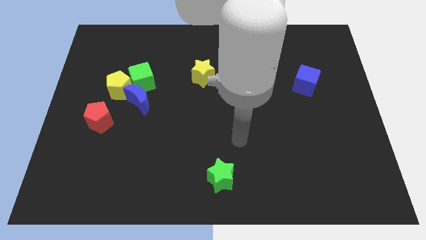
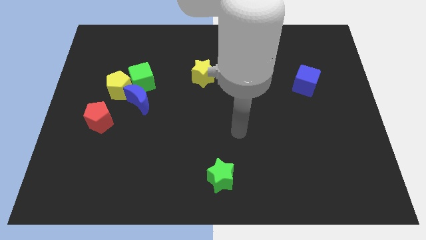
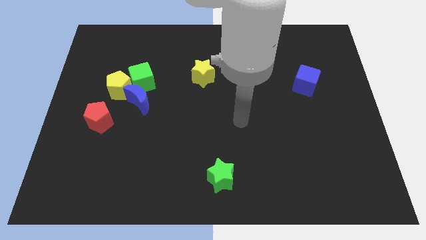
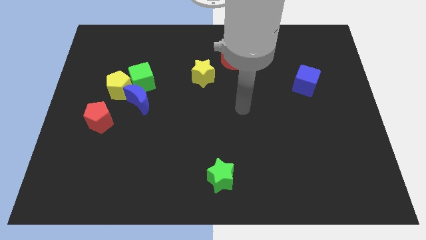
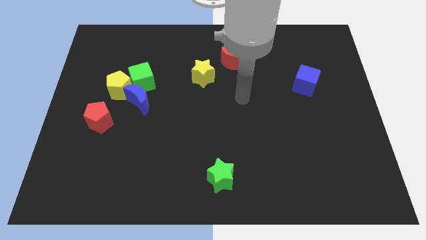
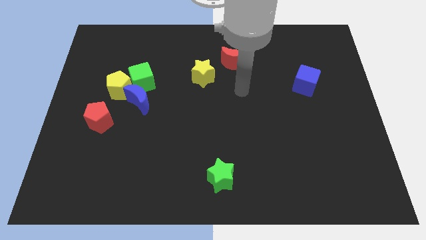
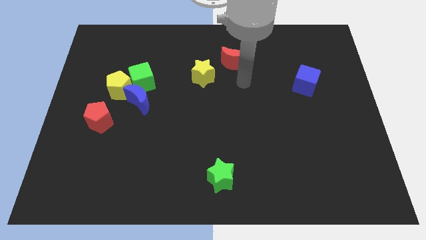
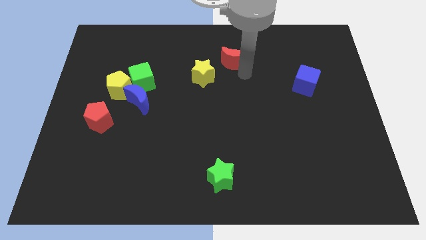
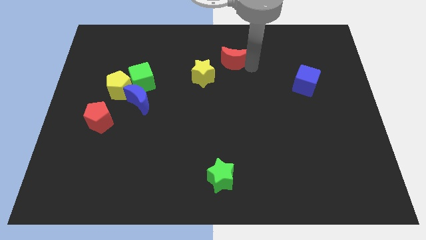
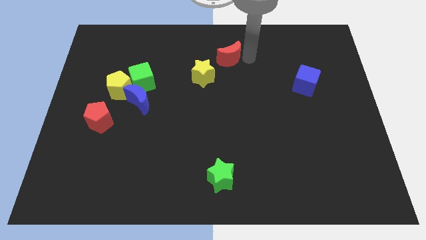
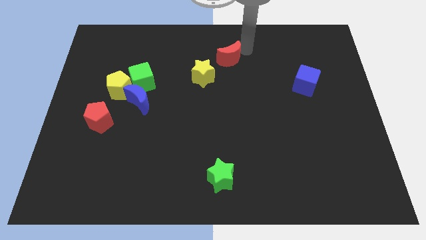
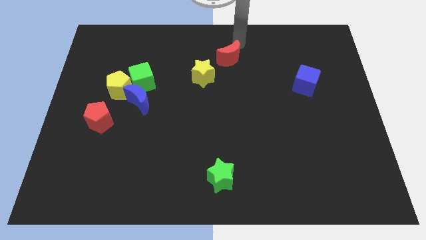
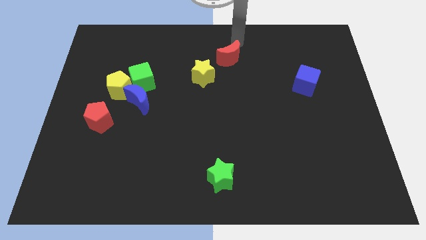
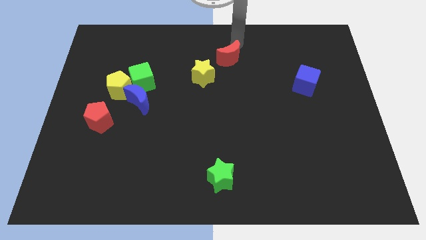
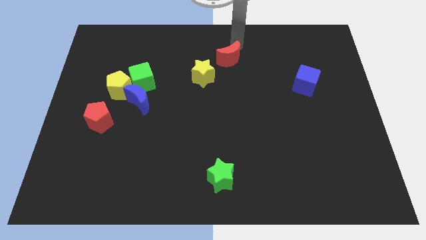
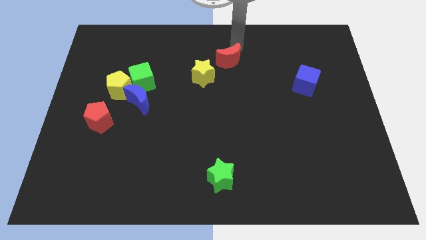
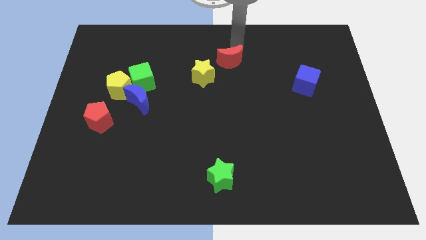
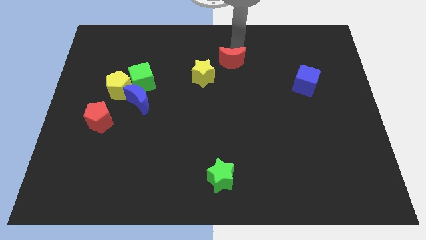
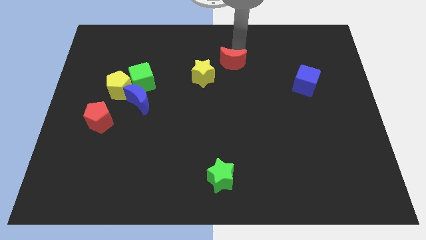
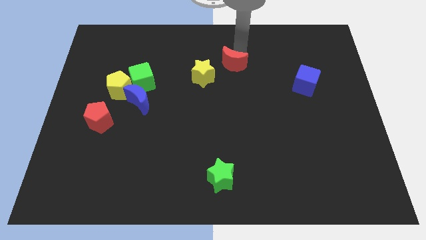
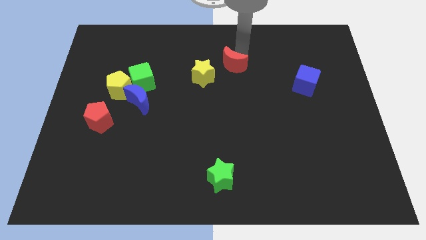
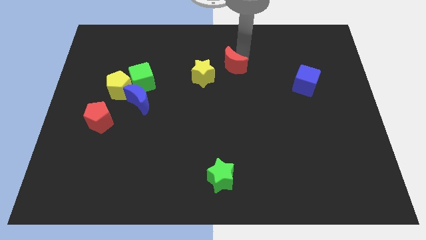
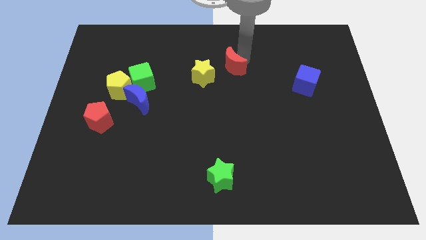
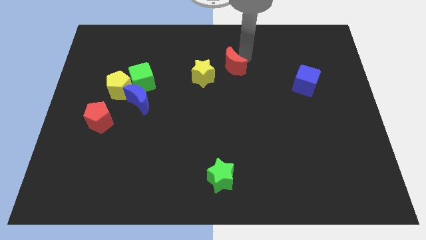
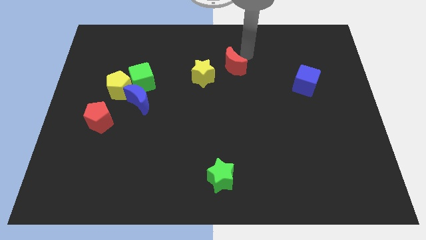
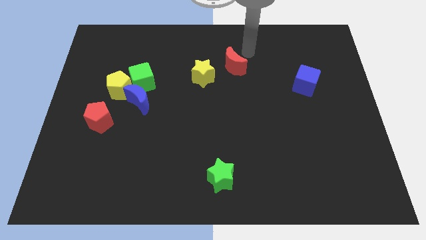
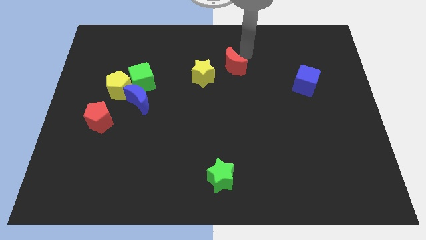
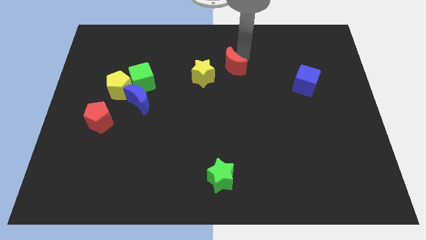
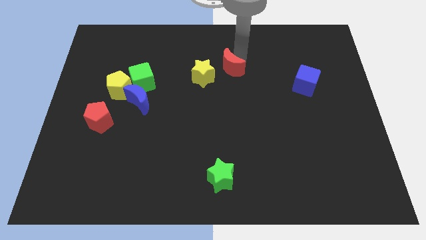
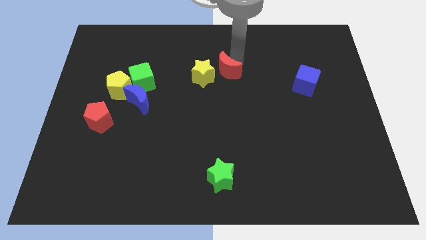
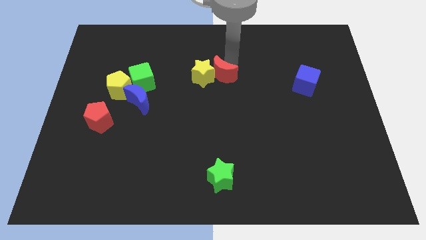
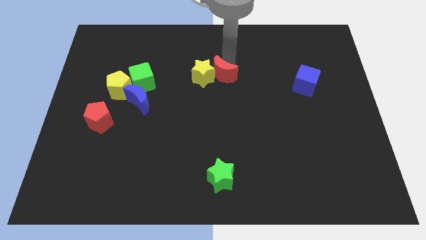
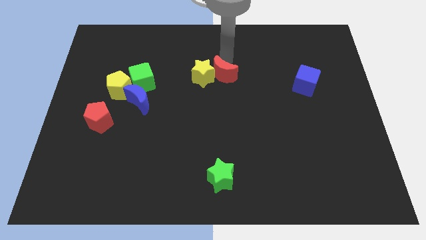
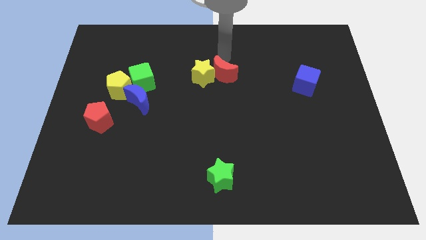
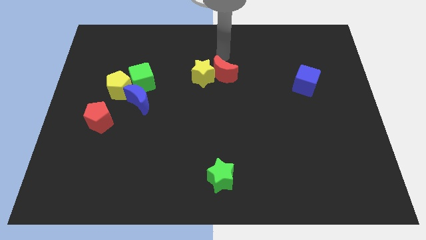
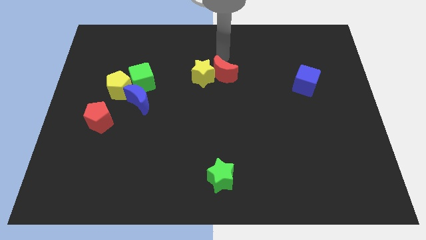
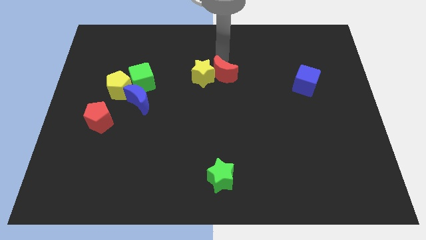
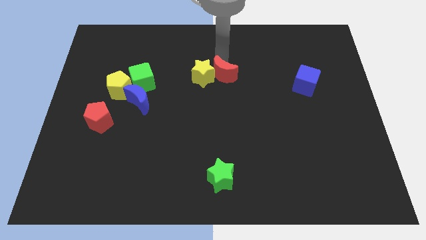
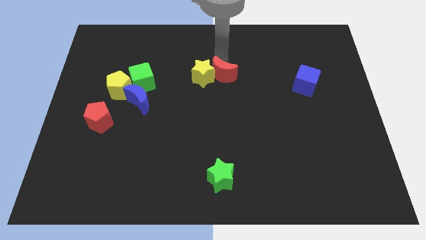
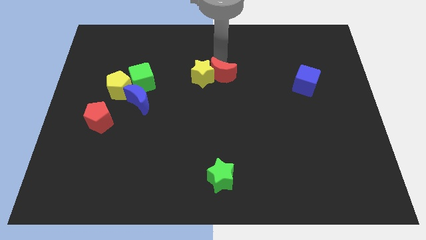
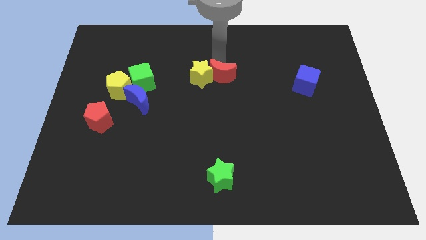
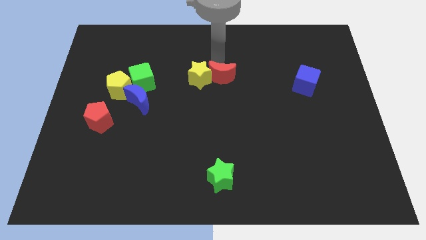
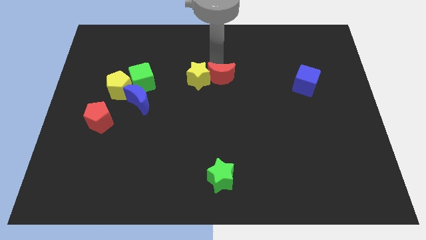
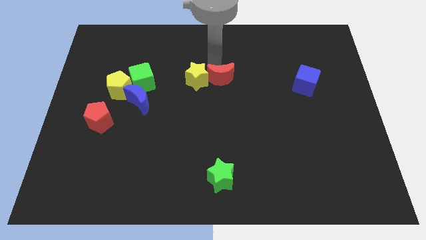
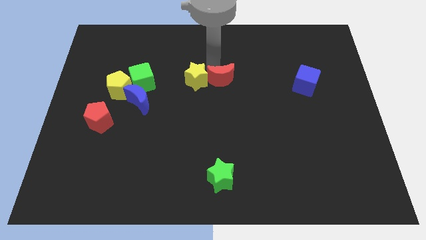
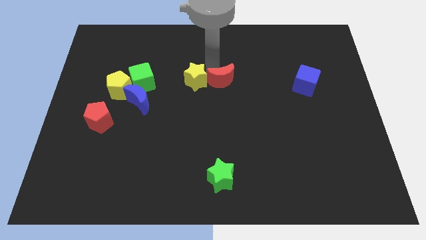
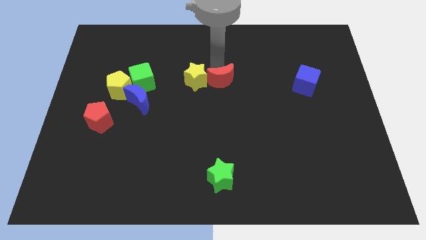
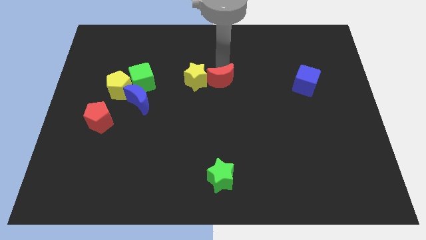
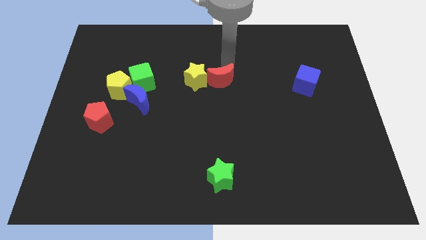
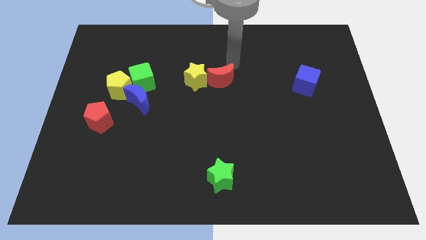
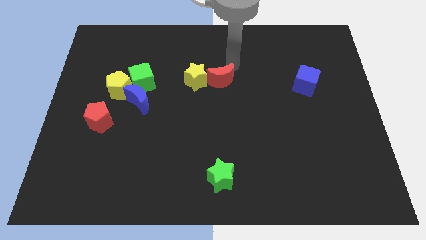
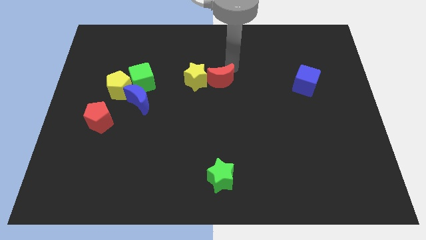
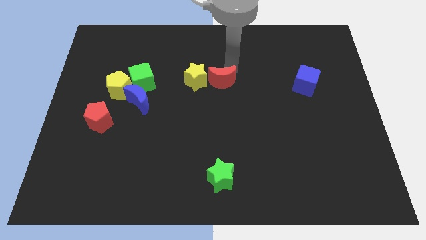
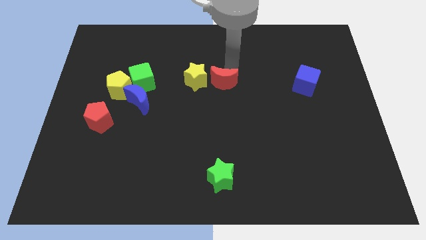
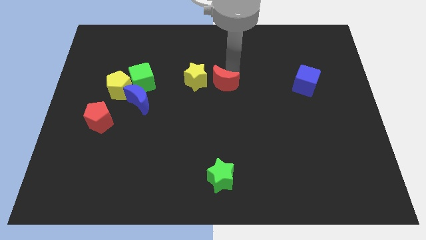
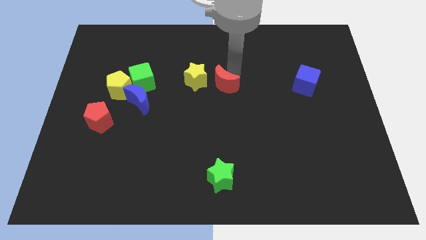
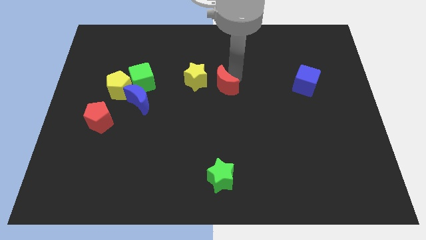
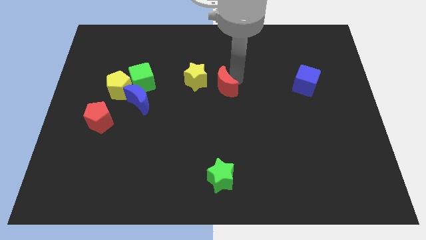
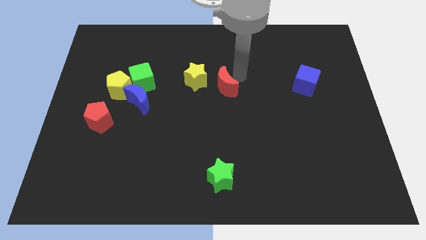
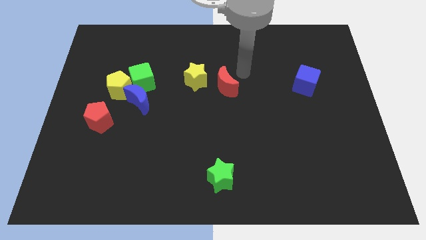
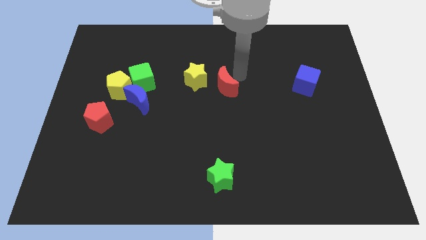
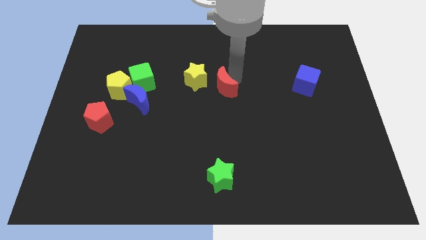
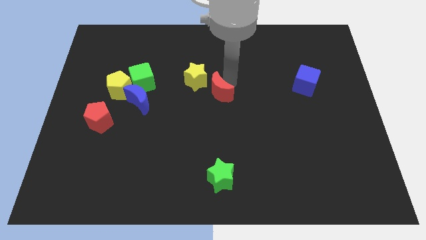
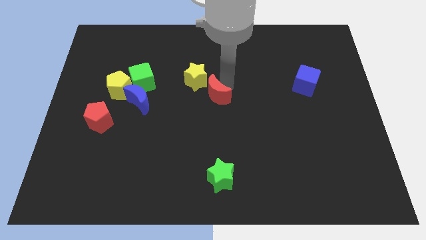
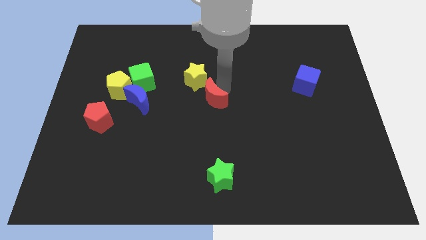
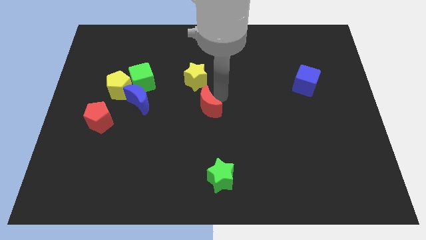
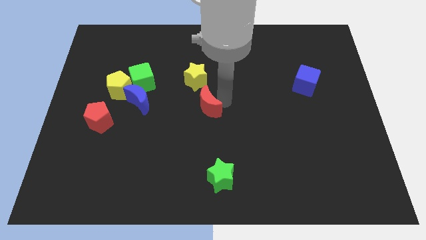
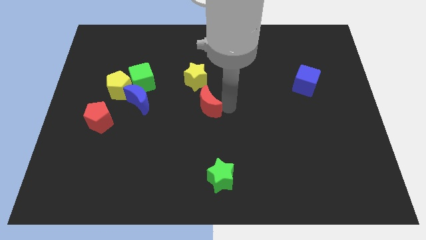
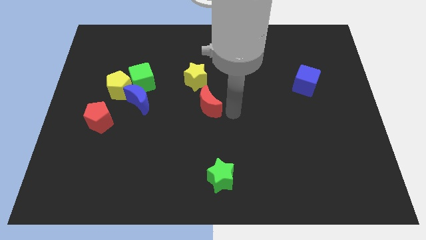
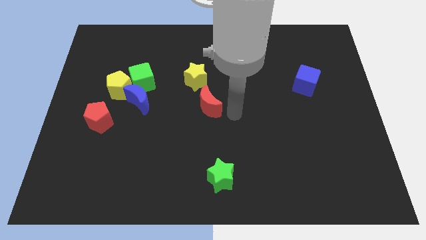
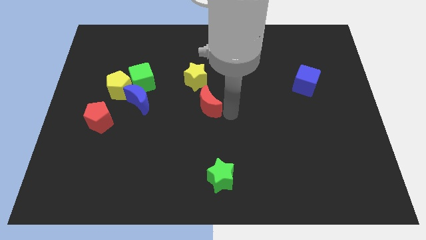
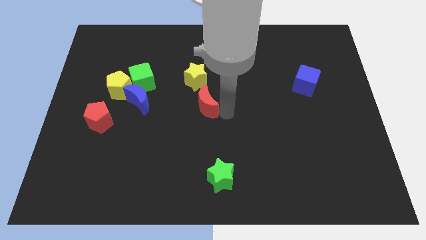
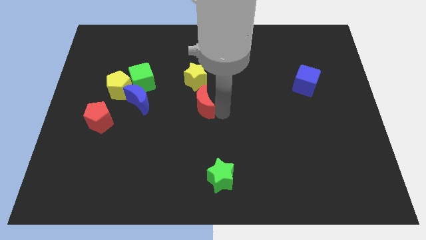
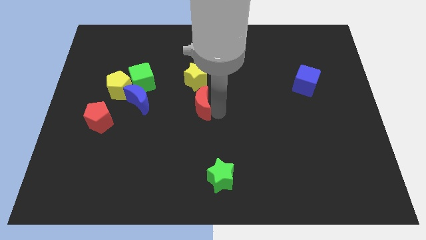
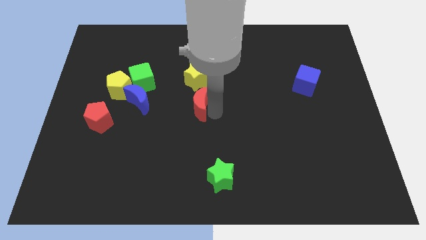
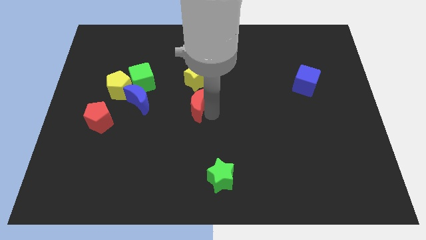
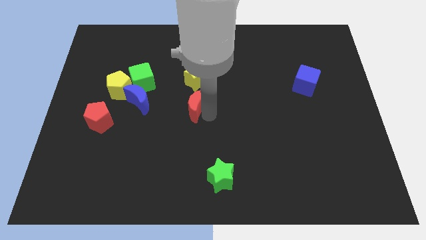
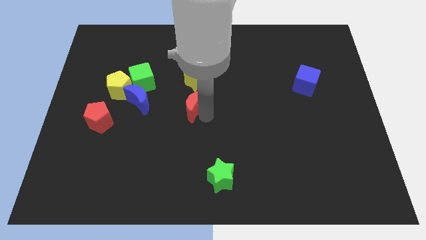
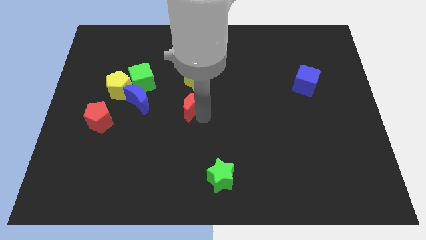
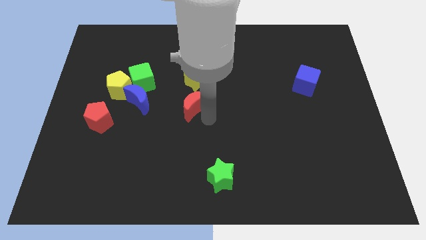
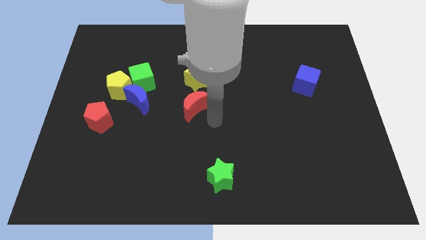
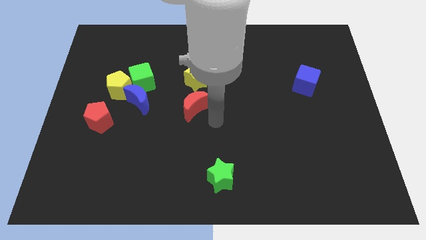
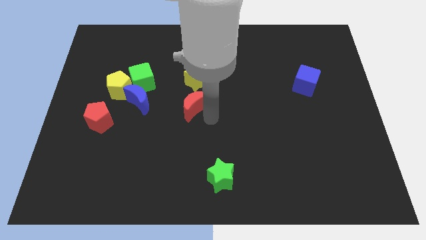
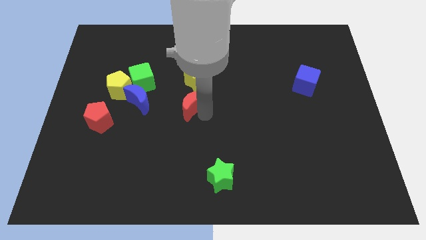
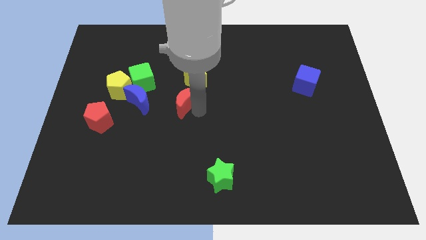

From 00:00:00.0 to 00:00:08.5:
push the red moon to the bottom left of the yellow star
